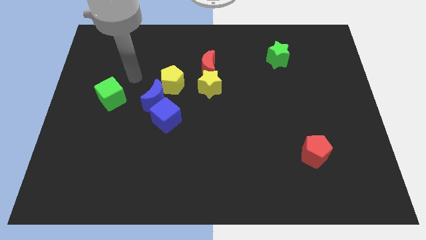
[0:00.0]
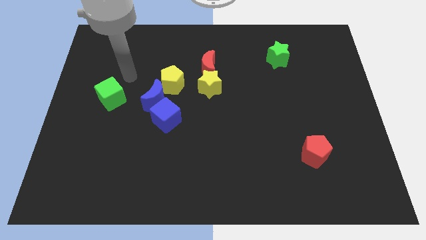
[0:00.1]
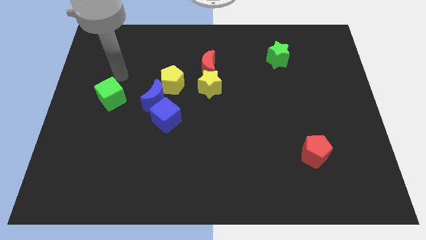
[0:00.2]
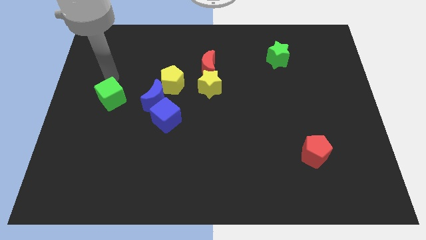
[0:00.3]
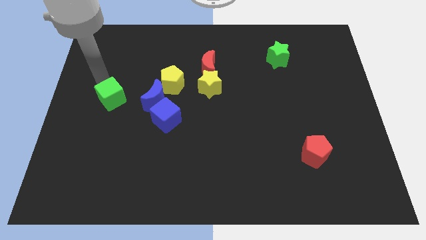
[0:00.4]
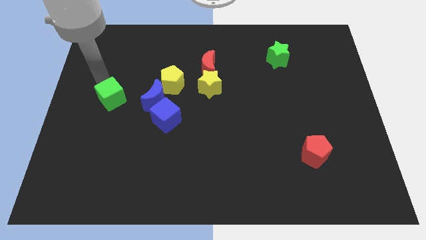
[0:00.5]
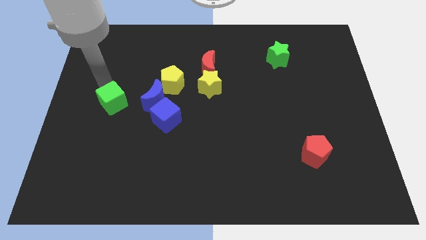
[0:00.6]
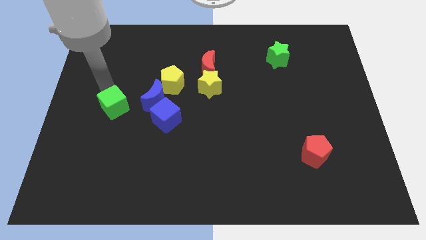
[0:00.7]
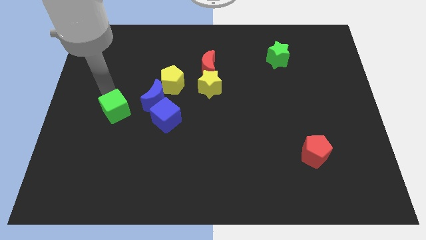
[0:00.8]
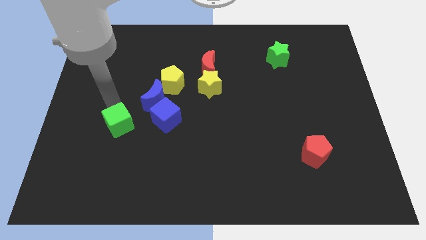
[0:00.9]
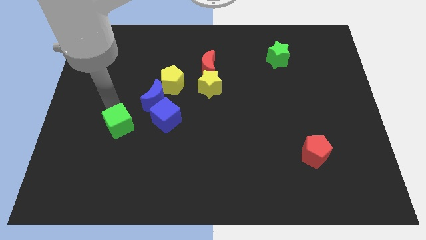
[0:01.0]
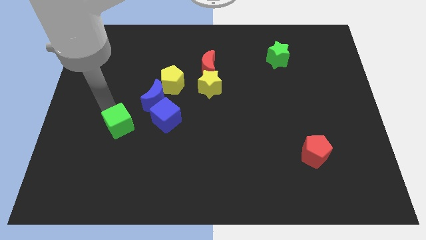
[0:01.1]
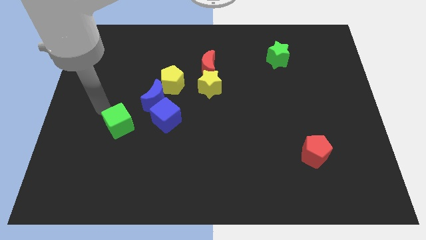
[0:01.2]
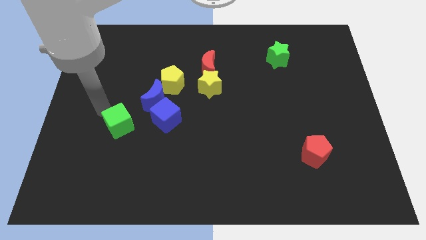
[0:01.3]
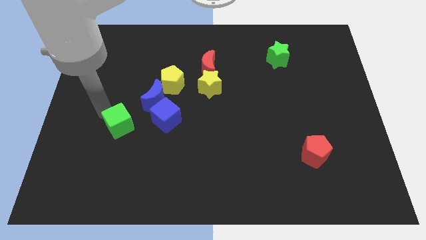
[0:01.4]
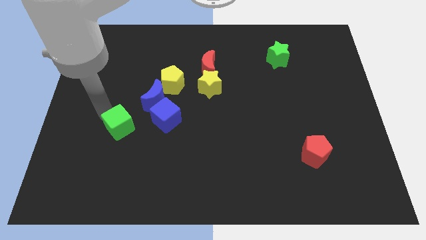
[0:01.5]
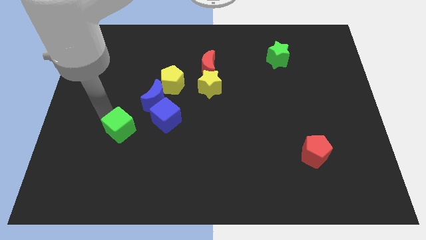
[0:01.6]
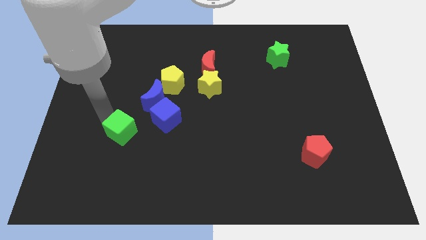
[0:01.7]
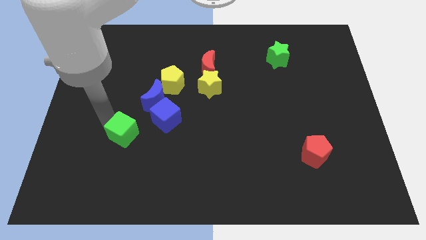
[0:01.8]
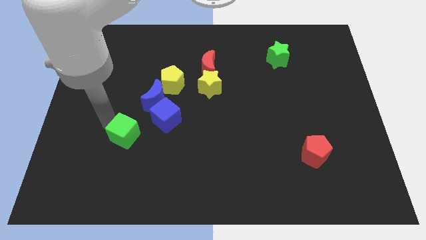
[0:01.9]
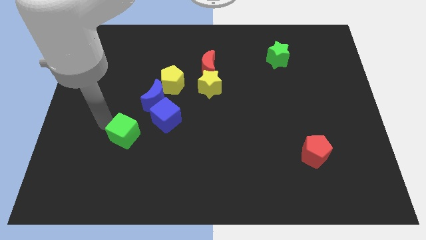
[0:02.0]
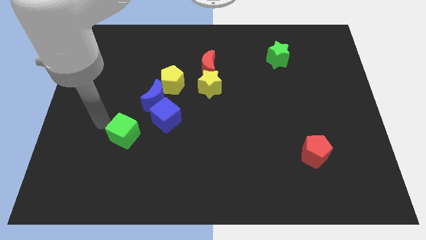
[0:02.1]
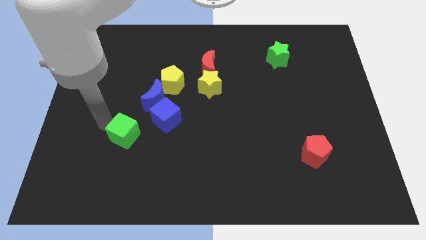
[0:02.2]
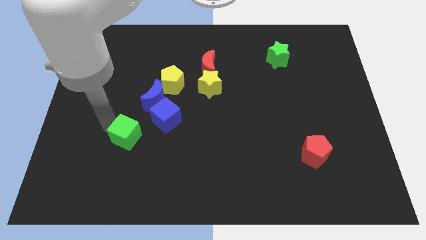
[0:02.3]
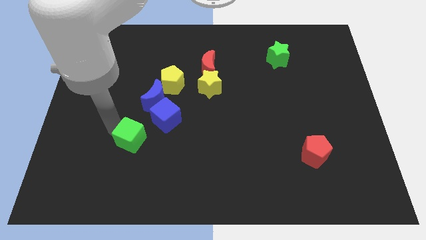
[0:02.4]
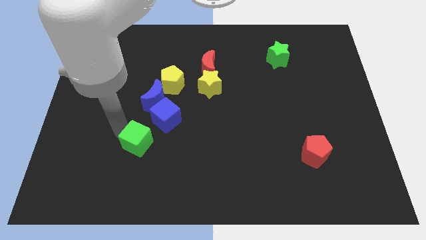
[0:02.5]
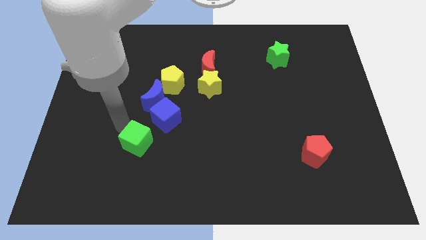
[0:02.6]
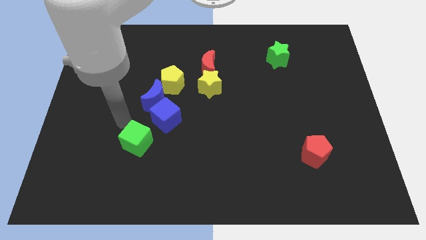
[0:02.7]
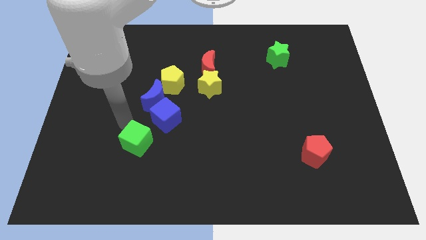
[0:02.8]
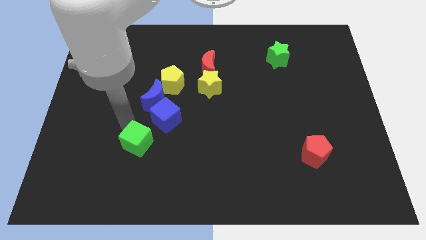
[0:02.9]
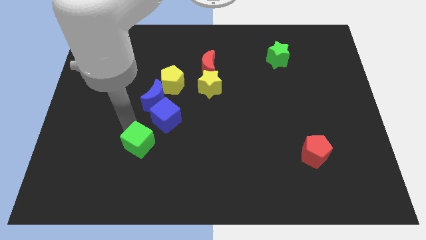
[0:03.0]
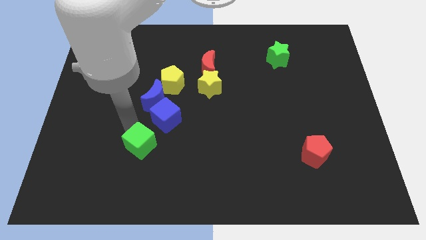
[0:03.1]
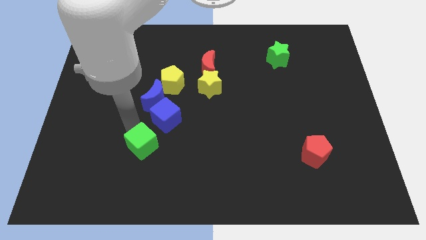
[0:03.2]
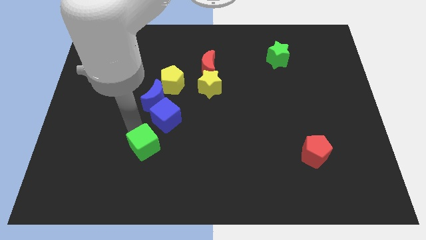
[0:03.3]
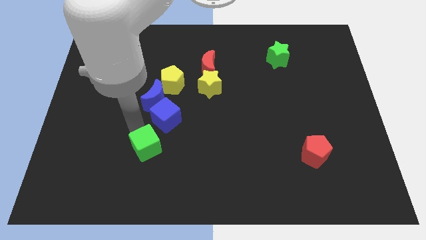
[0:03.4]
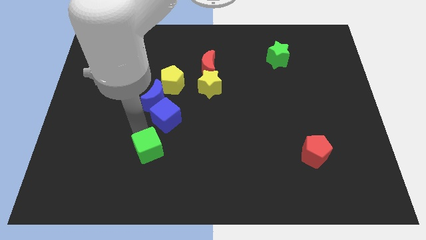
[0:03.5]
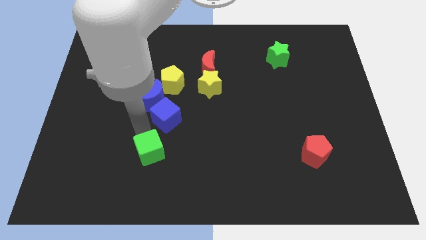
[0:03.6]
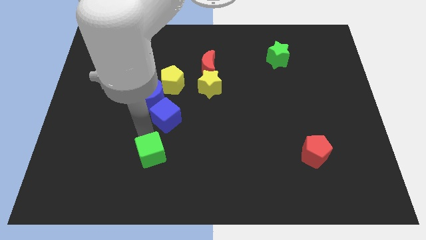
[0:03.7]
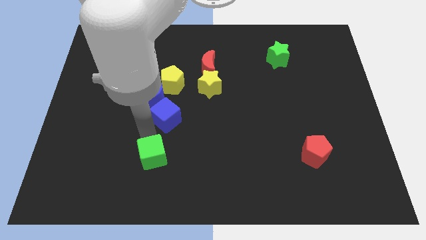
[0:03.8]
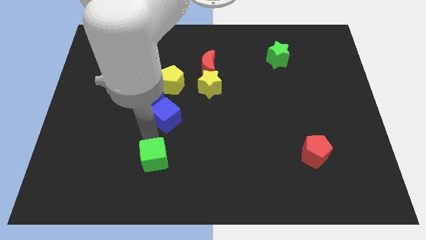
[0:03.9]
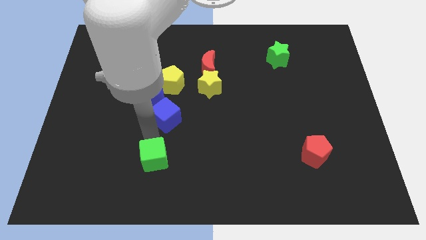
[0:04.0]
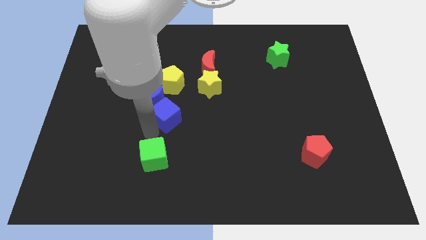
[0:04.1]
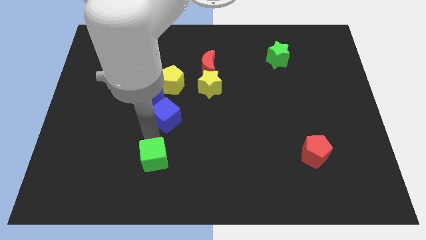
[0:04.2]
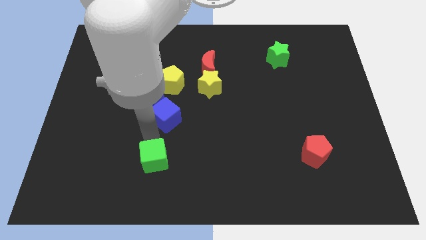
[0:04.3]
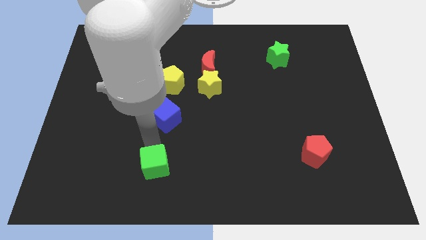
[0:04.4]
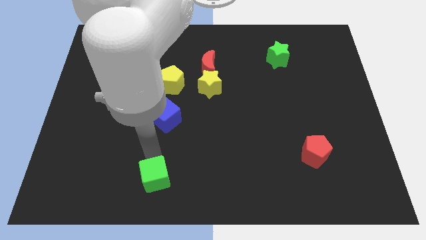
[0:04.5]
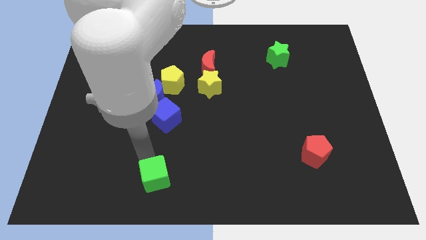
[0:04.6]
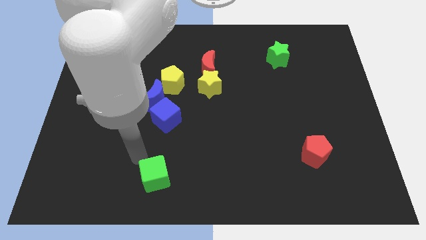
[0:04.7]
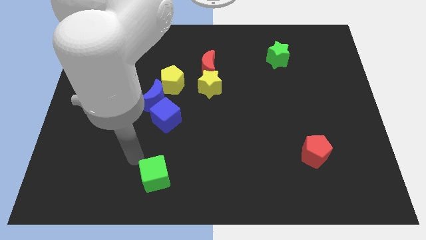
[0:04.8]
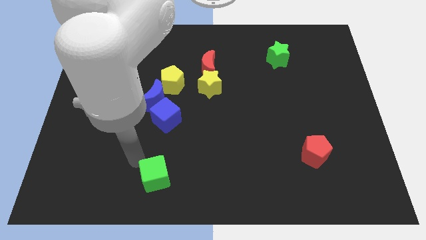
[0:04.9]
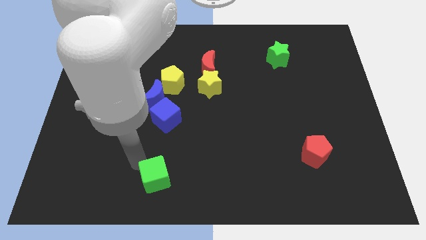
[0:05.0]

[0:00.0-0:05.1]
put the green cube to the bottom side

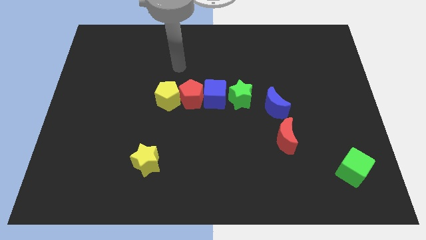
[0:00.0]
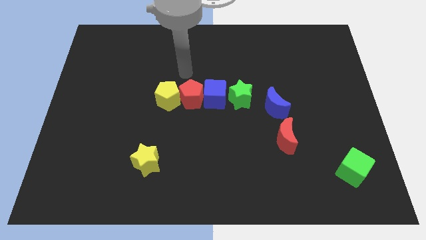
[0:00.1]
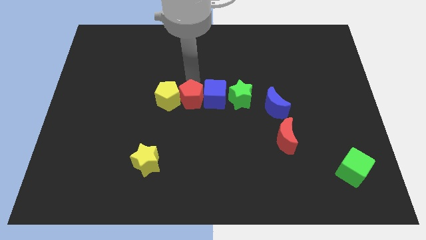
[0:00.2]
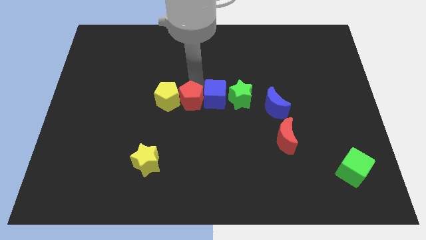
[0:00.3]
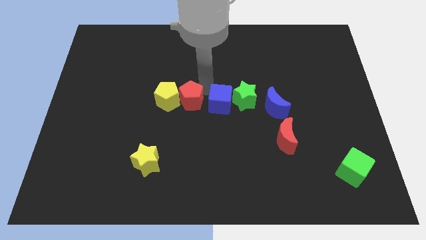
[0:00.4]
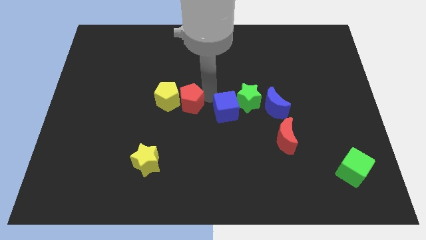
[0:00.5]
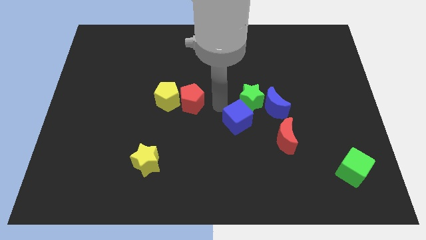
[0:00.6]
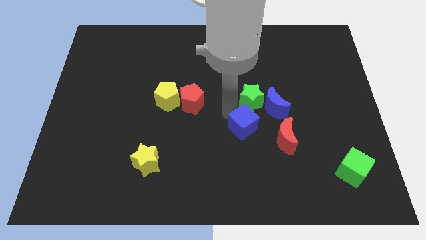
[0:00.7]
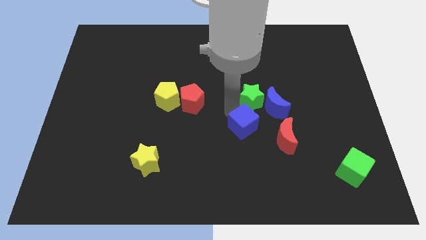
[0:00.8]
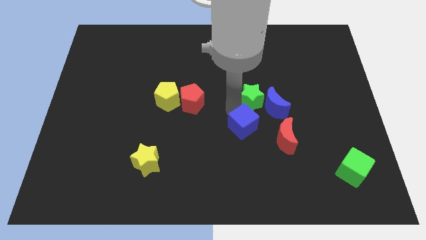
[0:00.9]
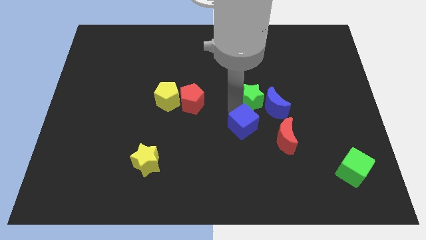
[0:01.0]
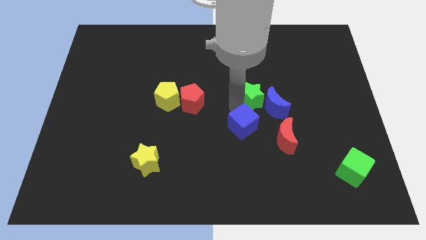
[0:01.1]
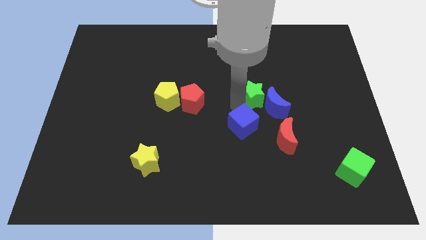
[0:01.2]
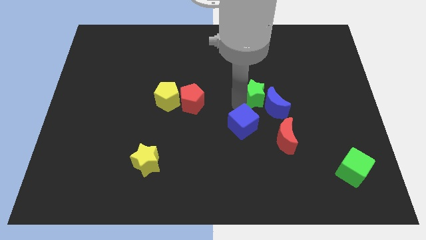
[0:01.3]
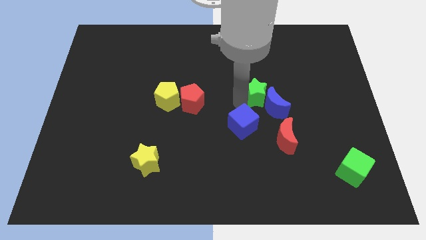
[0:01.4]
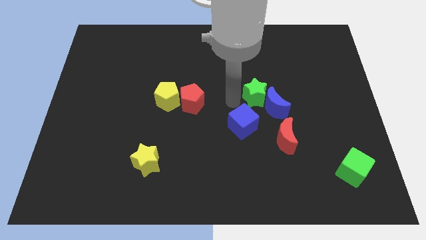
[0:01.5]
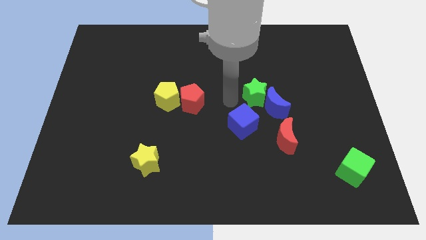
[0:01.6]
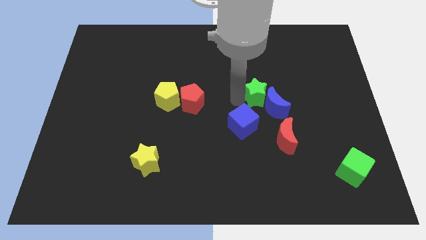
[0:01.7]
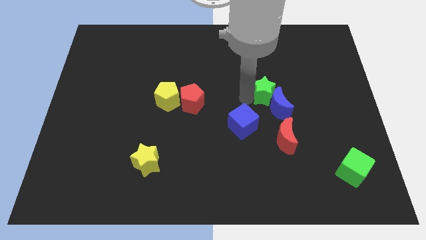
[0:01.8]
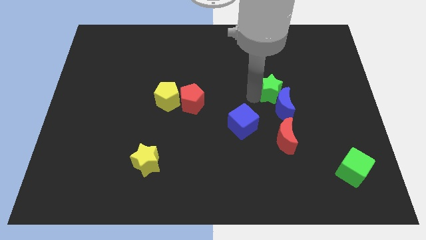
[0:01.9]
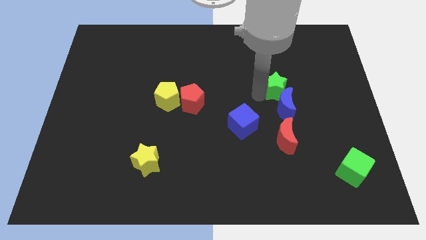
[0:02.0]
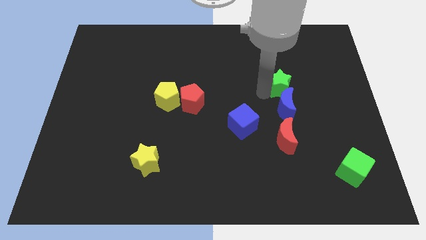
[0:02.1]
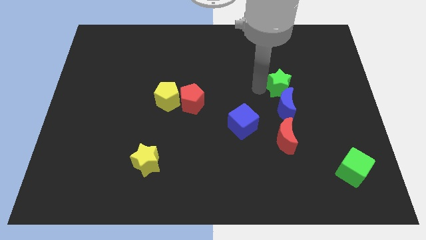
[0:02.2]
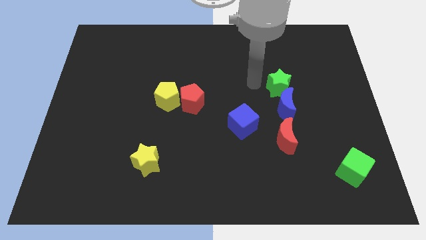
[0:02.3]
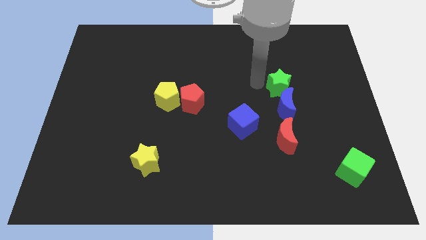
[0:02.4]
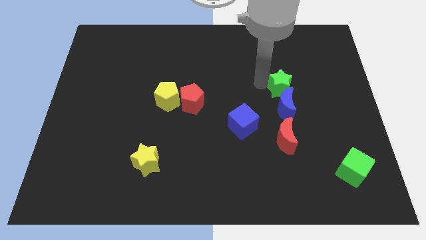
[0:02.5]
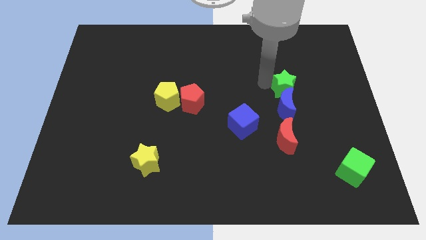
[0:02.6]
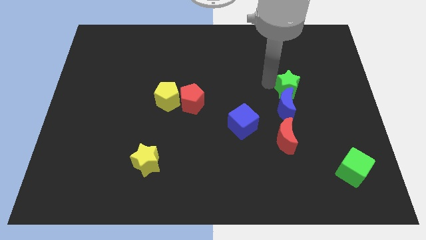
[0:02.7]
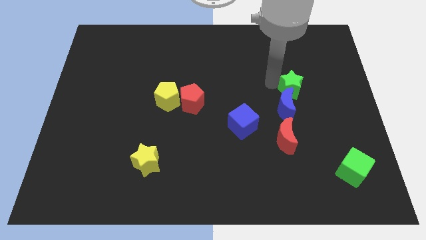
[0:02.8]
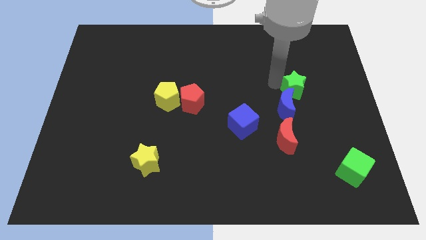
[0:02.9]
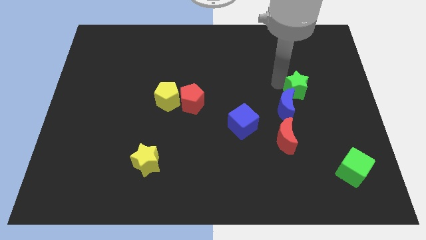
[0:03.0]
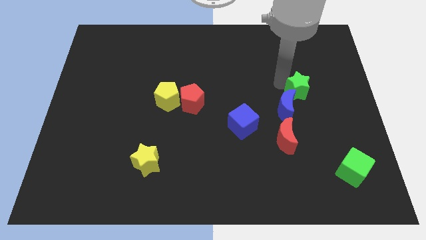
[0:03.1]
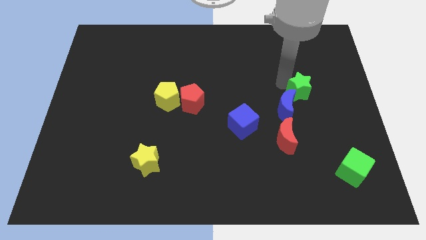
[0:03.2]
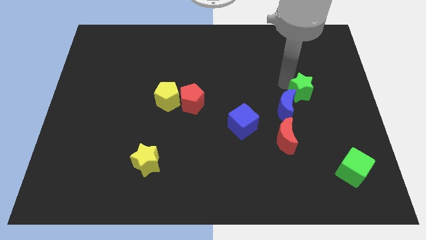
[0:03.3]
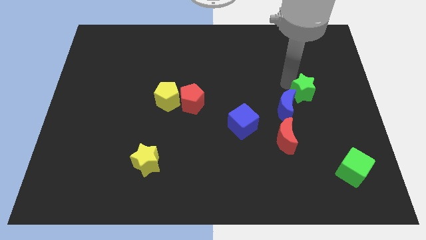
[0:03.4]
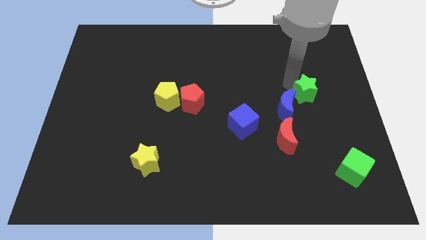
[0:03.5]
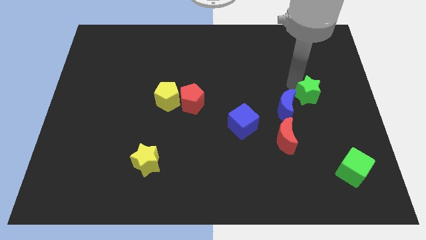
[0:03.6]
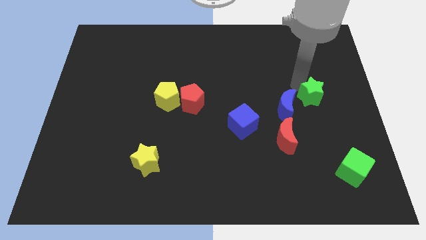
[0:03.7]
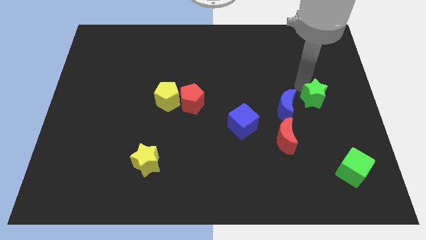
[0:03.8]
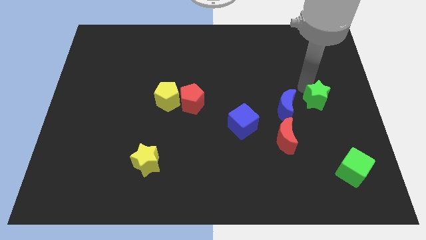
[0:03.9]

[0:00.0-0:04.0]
push the green star to the center right
